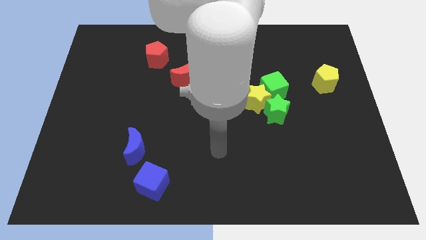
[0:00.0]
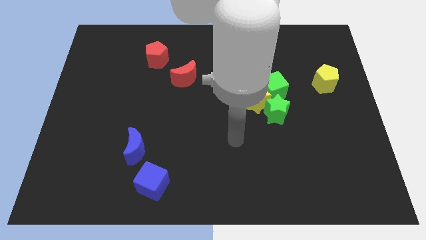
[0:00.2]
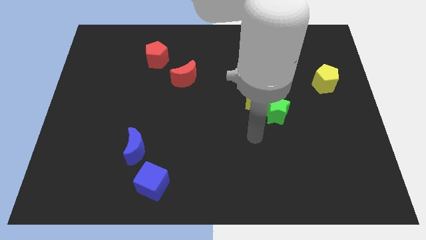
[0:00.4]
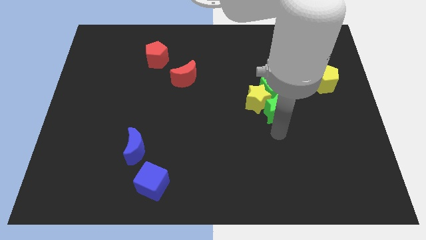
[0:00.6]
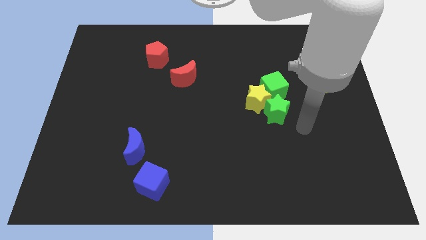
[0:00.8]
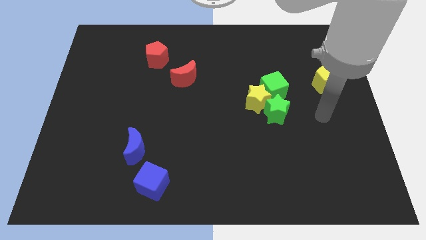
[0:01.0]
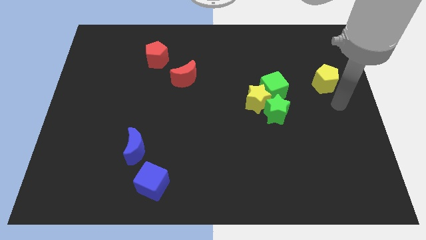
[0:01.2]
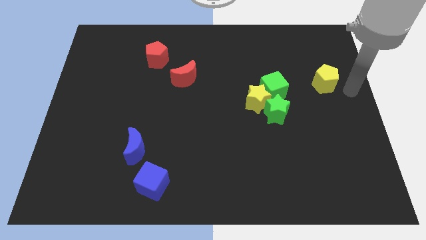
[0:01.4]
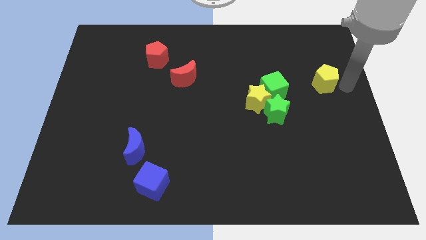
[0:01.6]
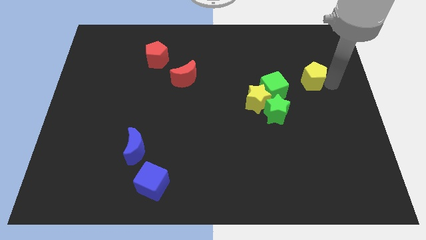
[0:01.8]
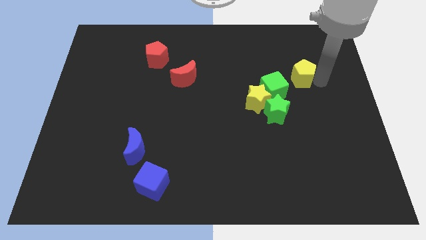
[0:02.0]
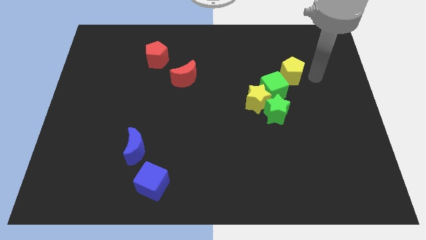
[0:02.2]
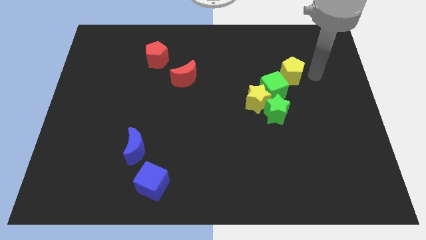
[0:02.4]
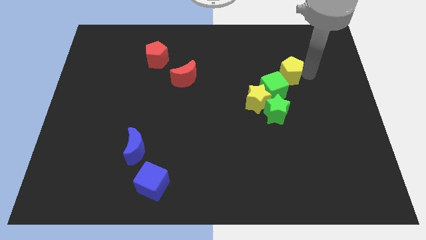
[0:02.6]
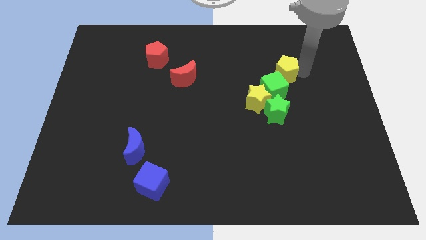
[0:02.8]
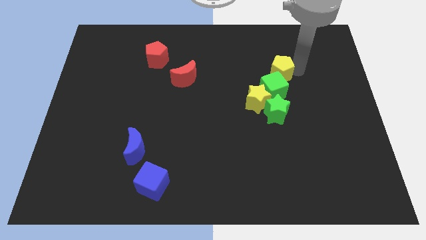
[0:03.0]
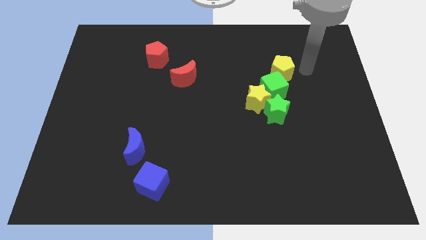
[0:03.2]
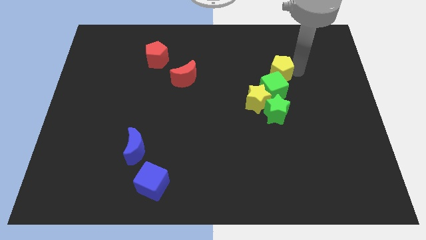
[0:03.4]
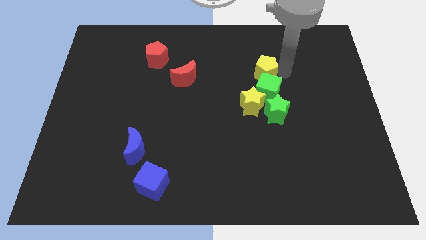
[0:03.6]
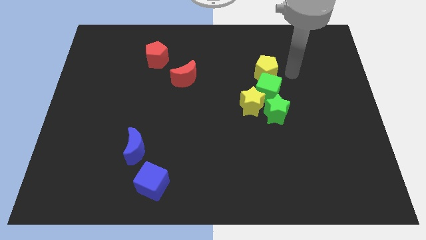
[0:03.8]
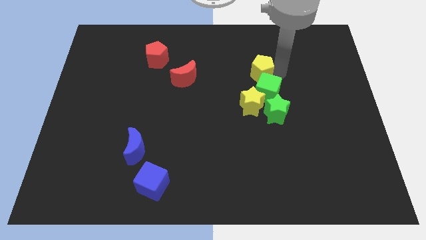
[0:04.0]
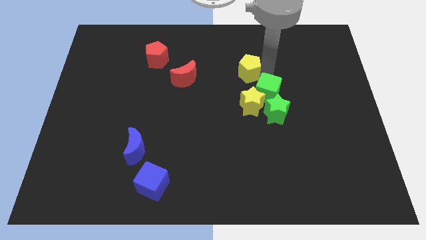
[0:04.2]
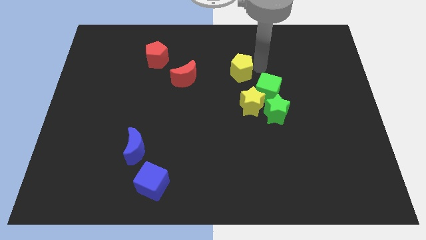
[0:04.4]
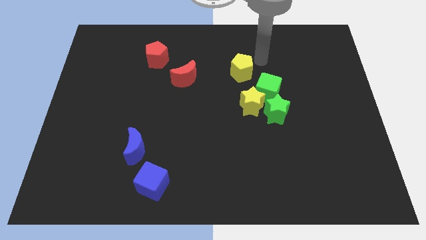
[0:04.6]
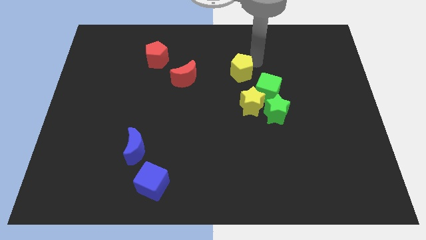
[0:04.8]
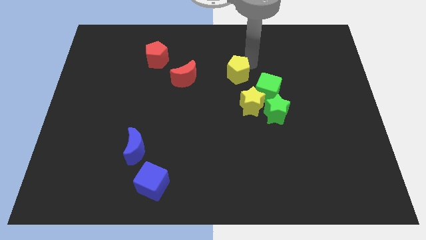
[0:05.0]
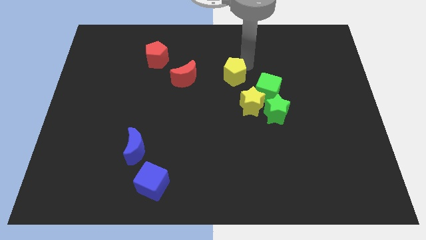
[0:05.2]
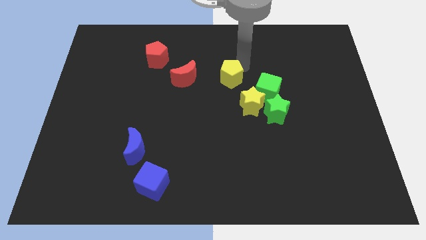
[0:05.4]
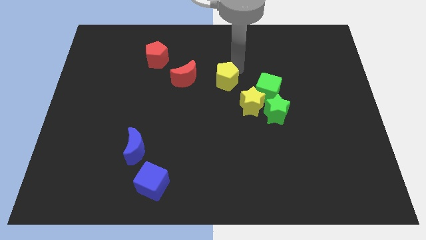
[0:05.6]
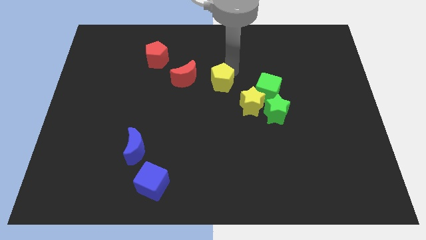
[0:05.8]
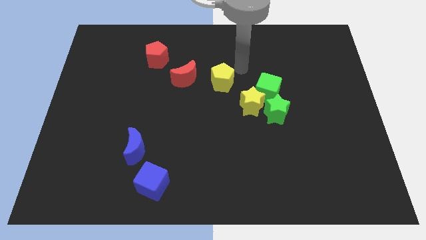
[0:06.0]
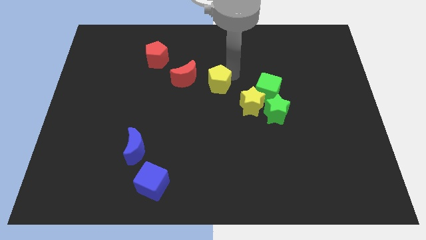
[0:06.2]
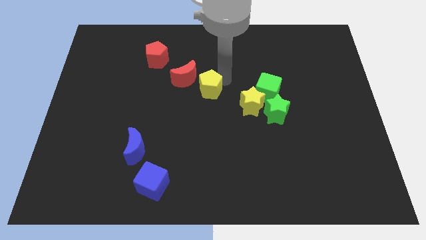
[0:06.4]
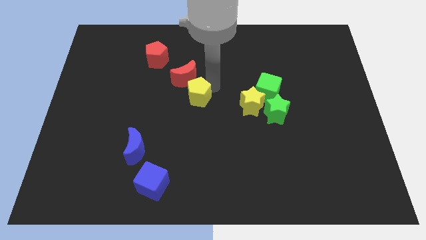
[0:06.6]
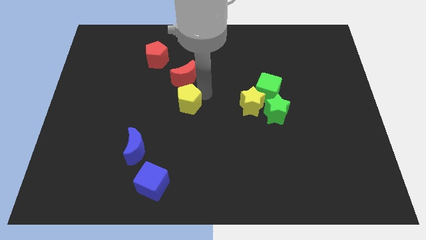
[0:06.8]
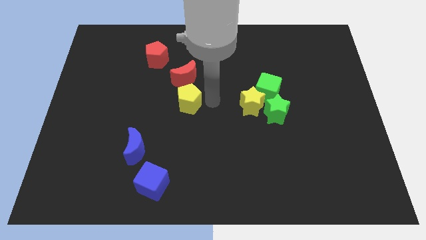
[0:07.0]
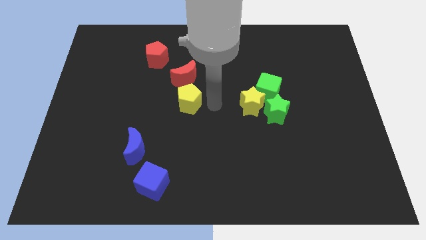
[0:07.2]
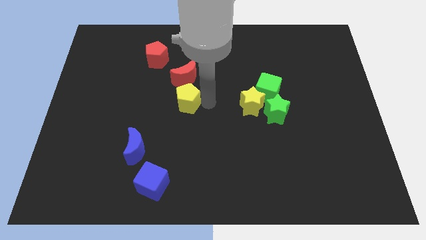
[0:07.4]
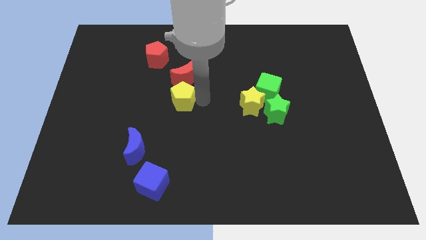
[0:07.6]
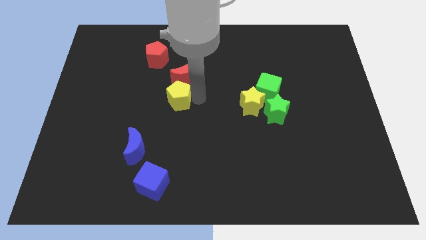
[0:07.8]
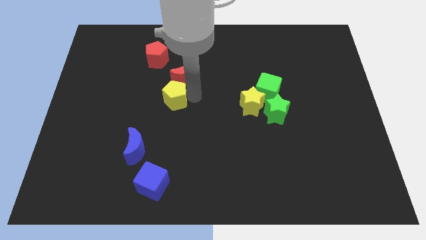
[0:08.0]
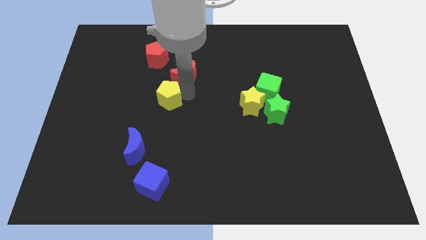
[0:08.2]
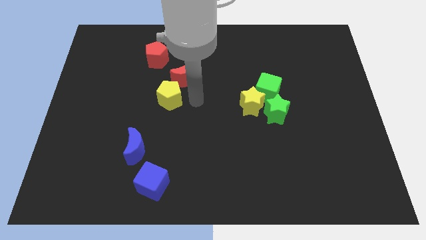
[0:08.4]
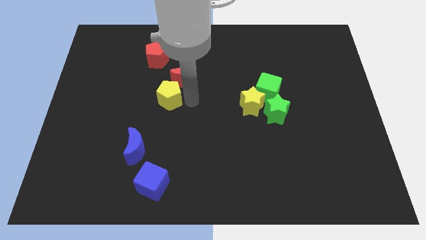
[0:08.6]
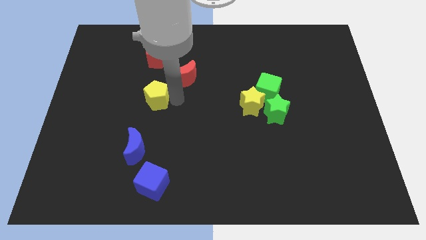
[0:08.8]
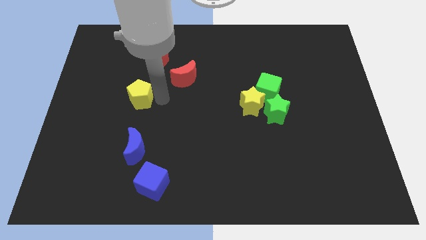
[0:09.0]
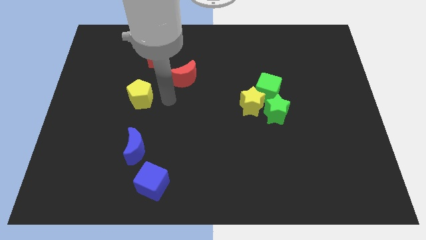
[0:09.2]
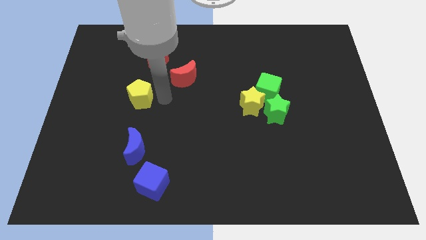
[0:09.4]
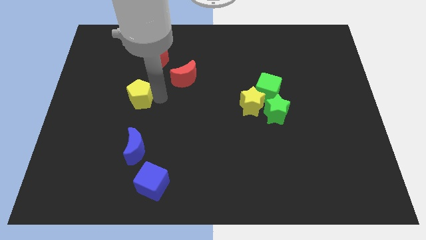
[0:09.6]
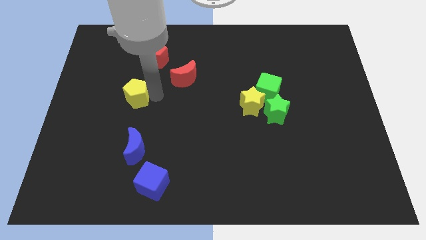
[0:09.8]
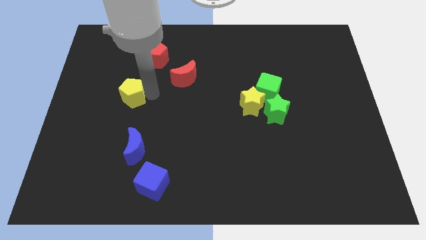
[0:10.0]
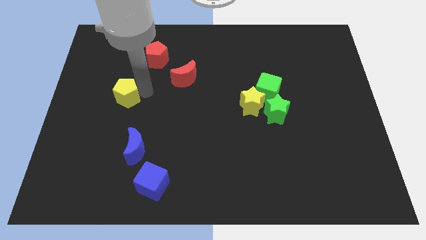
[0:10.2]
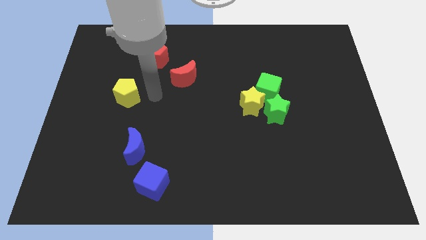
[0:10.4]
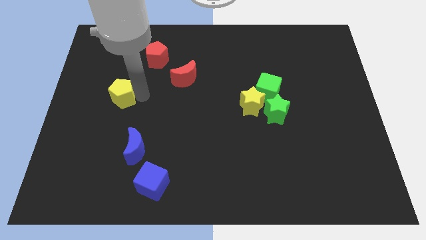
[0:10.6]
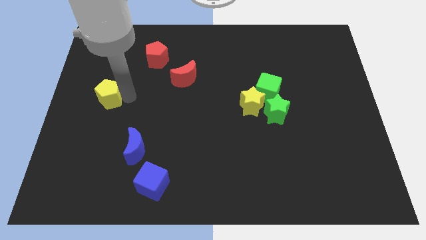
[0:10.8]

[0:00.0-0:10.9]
slide the yellow pentagon to the left side of the board

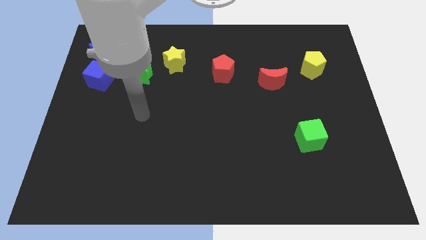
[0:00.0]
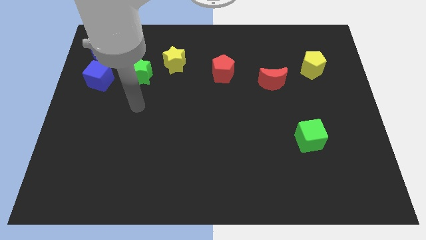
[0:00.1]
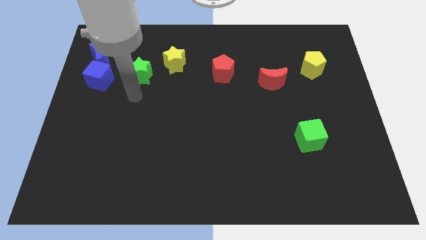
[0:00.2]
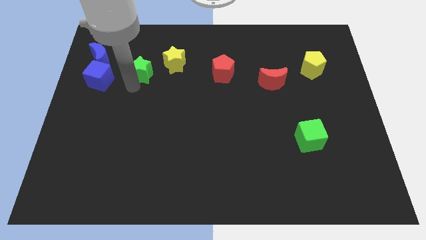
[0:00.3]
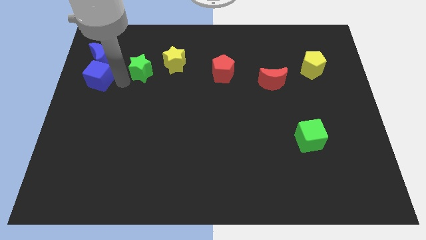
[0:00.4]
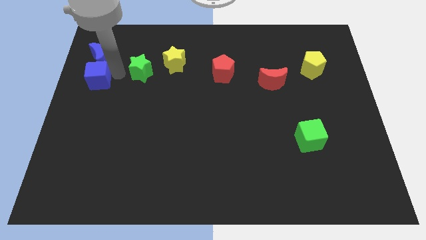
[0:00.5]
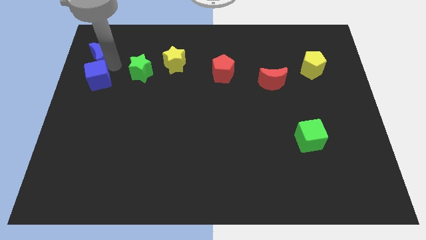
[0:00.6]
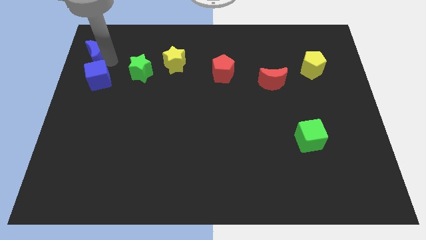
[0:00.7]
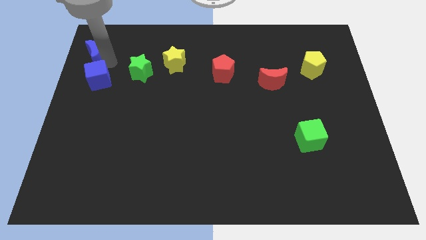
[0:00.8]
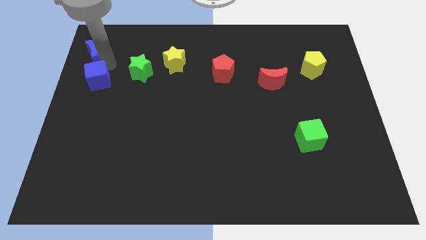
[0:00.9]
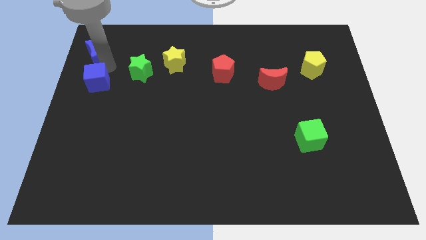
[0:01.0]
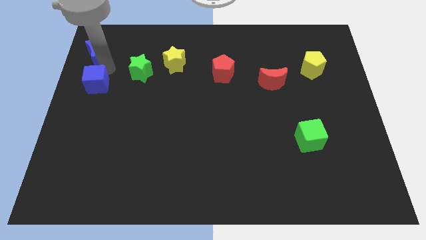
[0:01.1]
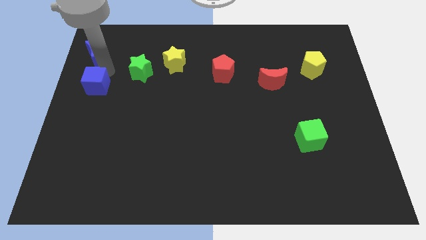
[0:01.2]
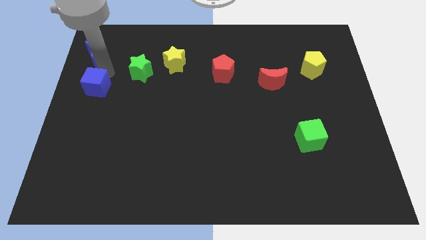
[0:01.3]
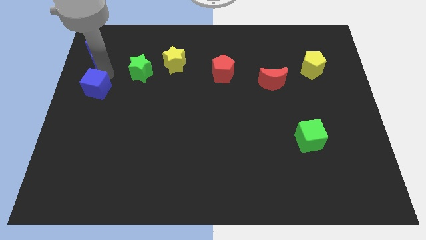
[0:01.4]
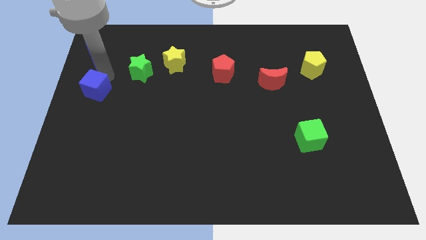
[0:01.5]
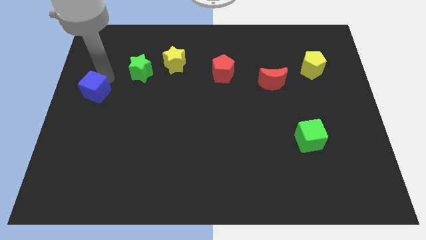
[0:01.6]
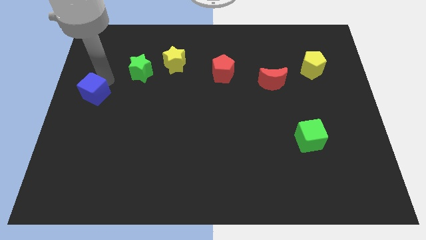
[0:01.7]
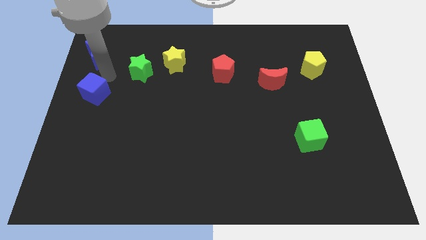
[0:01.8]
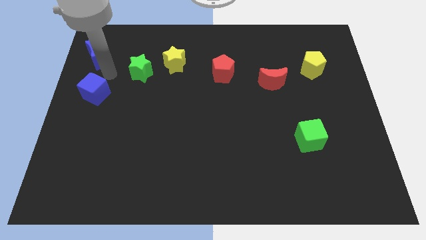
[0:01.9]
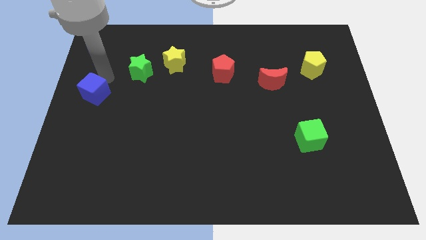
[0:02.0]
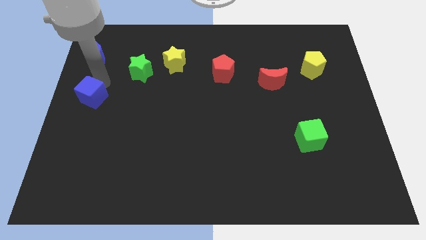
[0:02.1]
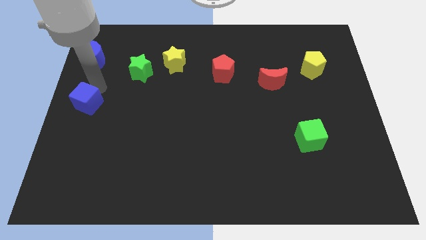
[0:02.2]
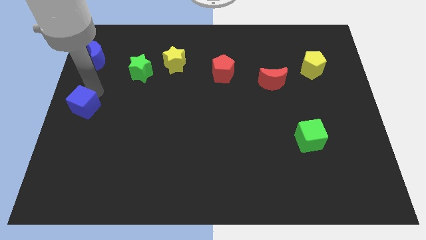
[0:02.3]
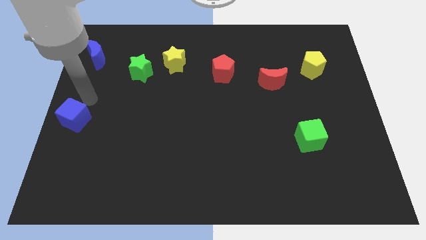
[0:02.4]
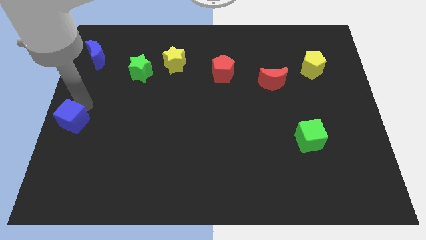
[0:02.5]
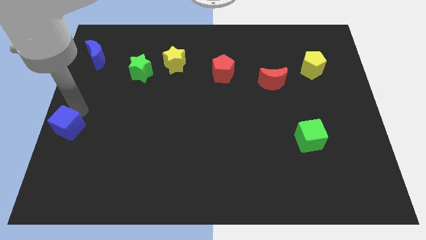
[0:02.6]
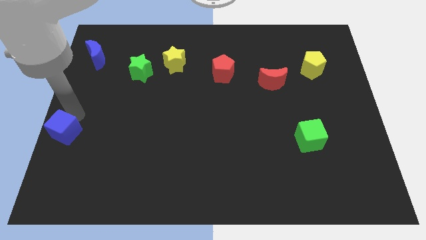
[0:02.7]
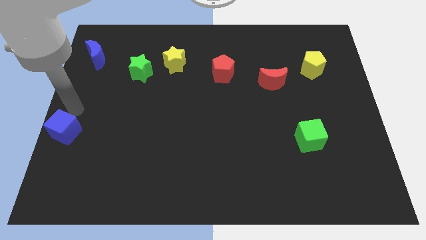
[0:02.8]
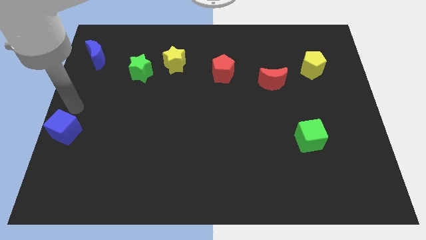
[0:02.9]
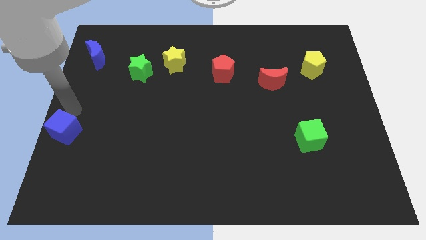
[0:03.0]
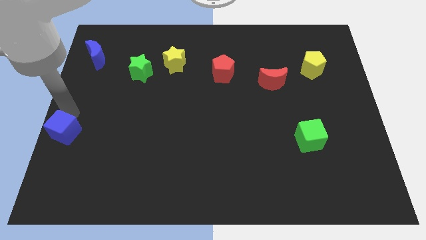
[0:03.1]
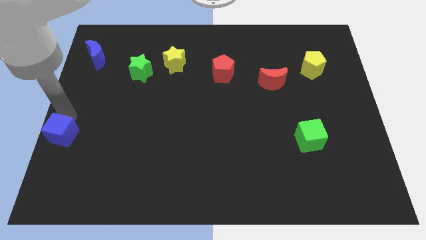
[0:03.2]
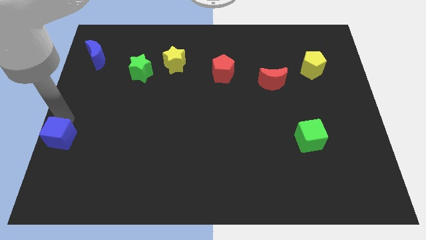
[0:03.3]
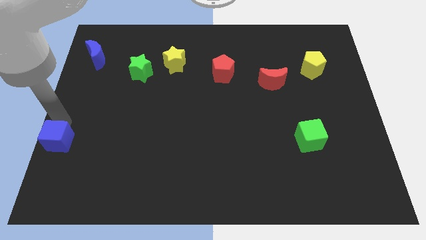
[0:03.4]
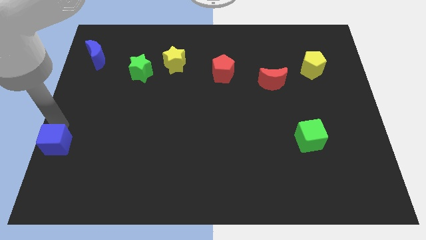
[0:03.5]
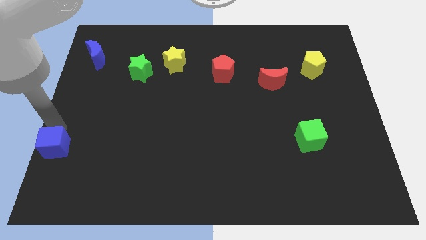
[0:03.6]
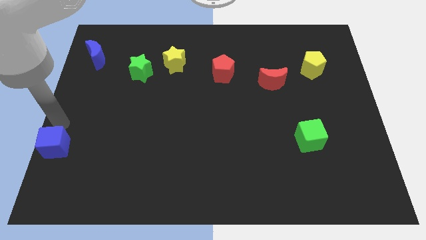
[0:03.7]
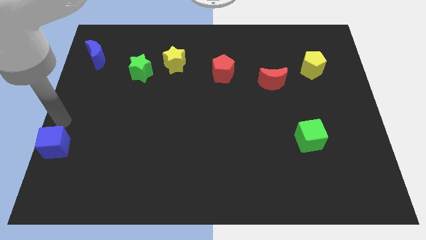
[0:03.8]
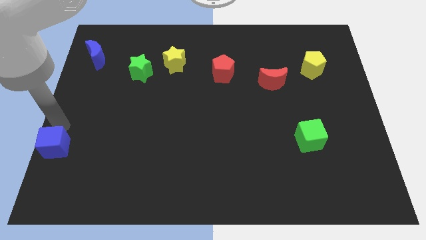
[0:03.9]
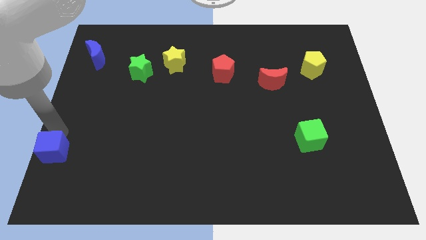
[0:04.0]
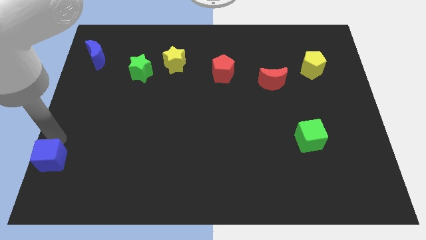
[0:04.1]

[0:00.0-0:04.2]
put the blue cube to the lower left corner
